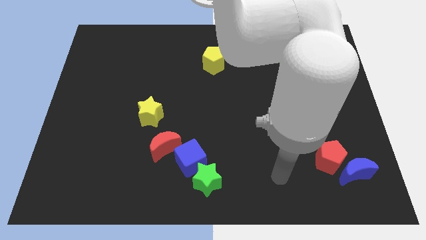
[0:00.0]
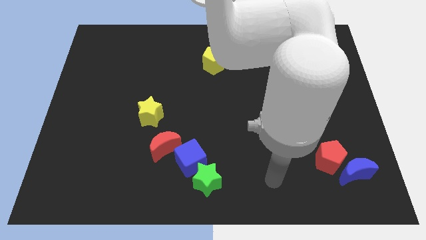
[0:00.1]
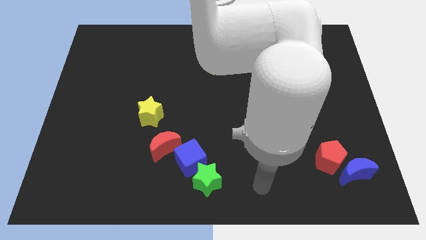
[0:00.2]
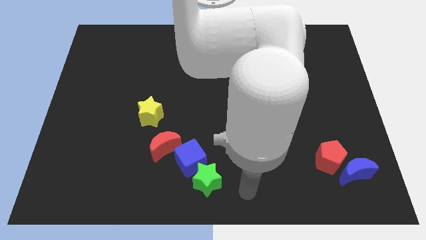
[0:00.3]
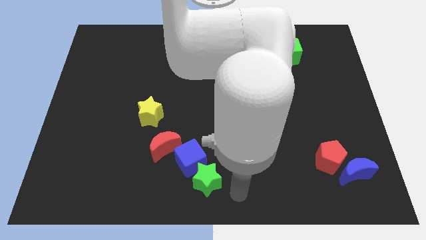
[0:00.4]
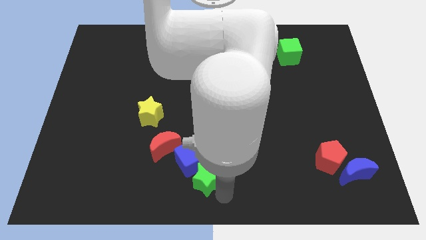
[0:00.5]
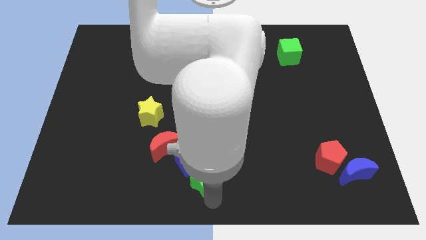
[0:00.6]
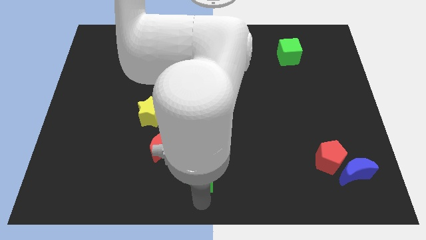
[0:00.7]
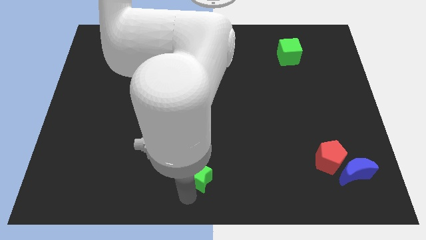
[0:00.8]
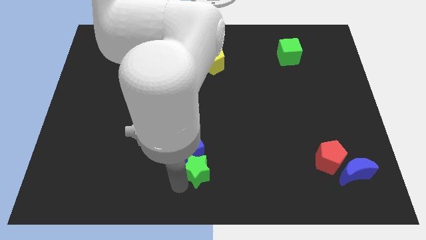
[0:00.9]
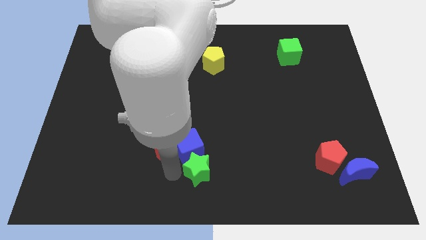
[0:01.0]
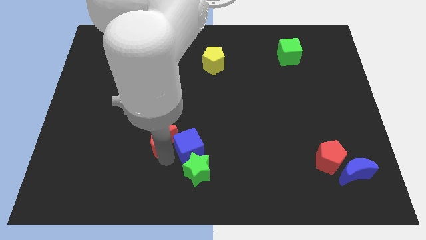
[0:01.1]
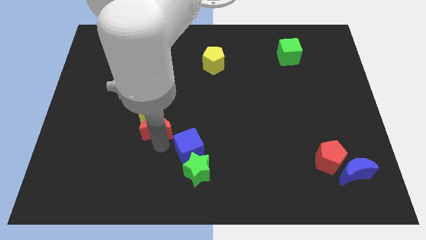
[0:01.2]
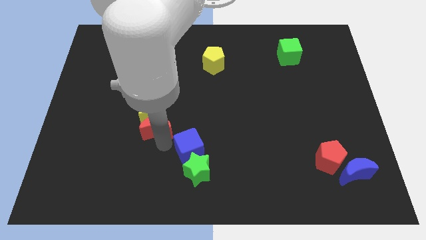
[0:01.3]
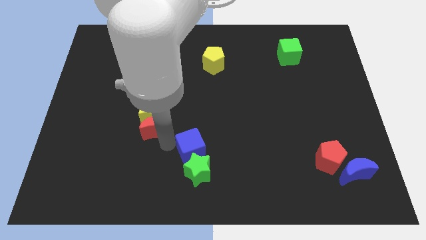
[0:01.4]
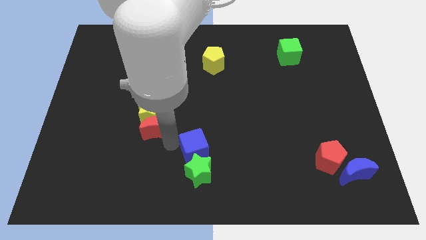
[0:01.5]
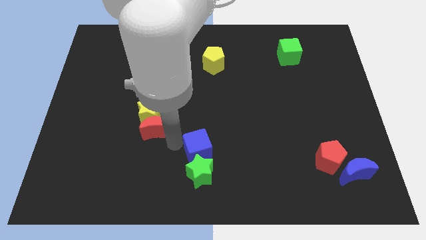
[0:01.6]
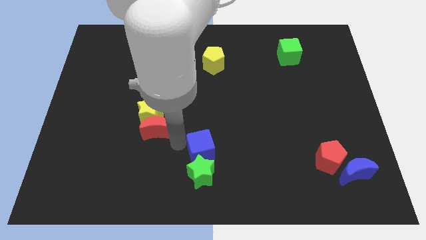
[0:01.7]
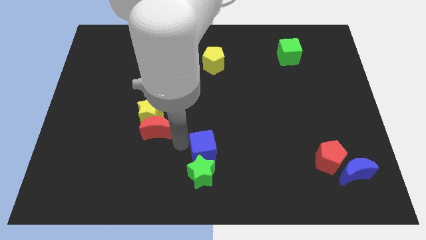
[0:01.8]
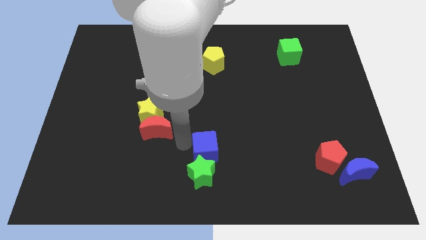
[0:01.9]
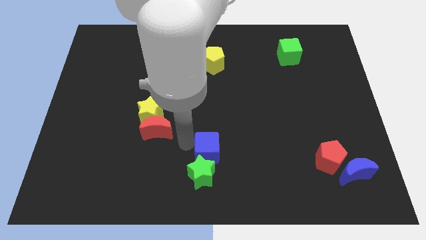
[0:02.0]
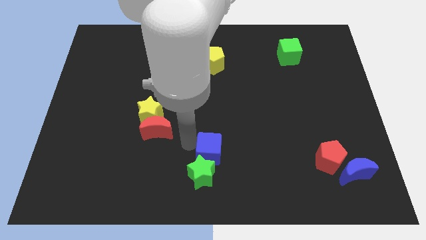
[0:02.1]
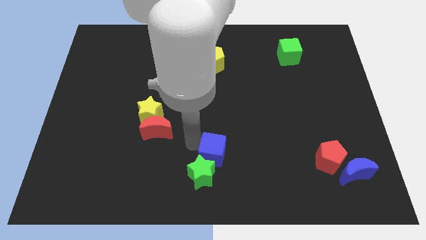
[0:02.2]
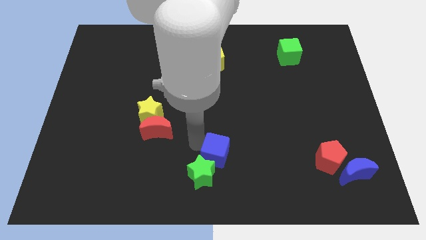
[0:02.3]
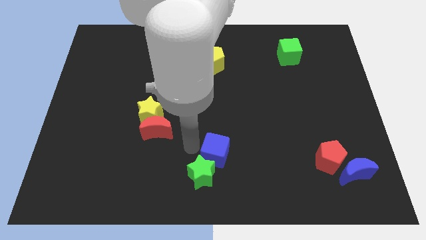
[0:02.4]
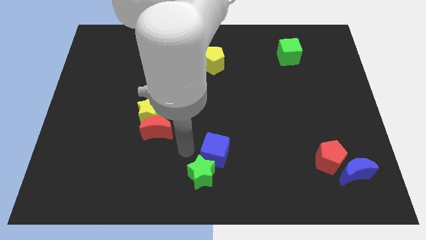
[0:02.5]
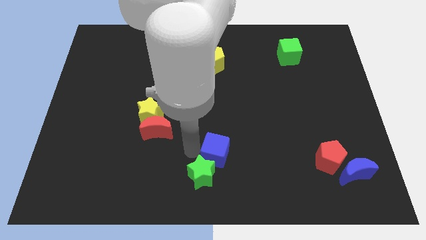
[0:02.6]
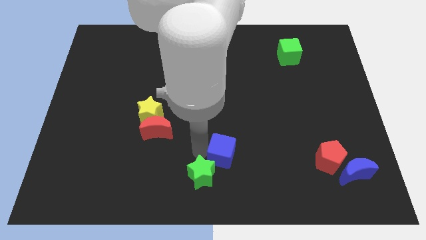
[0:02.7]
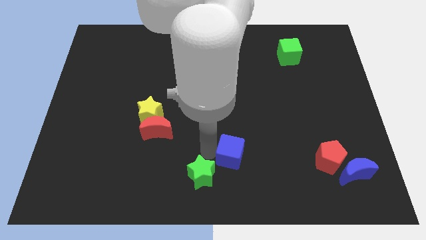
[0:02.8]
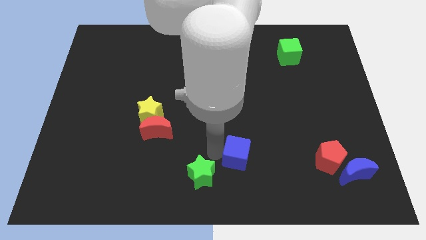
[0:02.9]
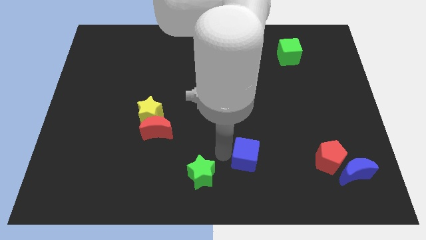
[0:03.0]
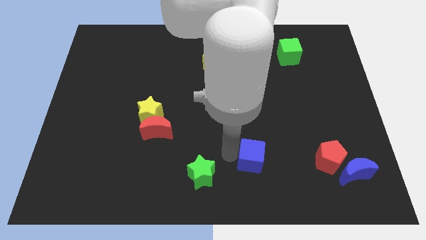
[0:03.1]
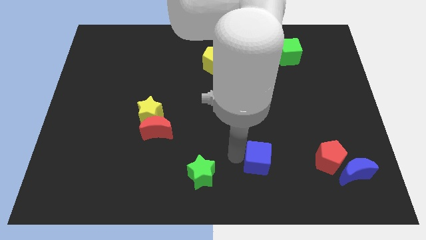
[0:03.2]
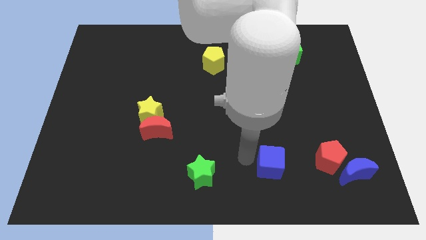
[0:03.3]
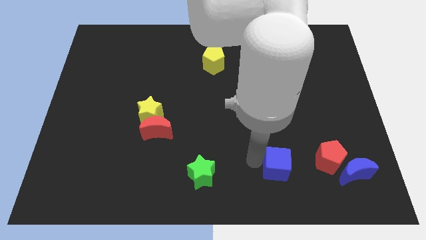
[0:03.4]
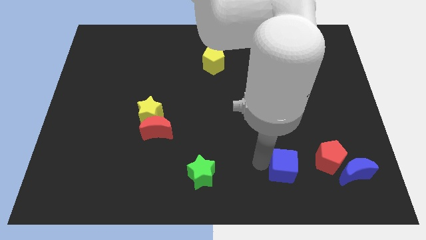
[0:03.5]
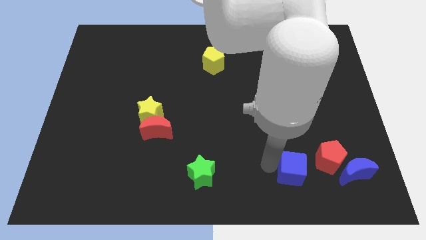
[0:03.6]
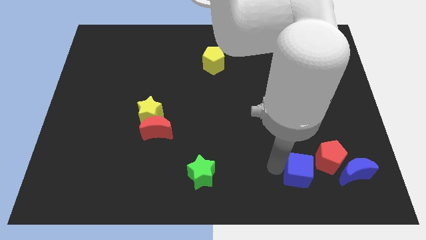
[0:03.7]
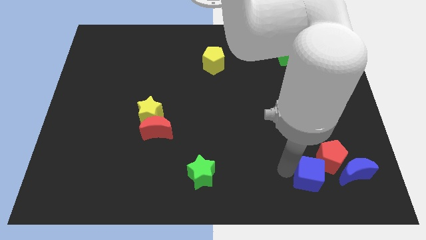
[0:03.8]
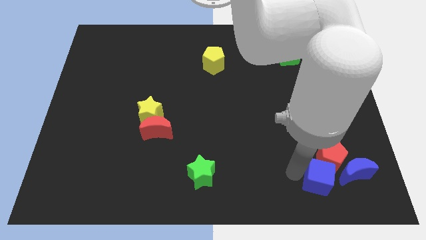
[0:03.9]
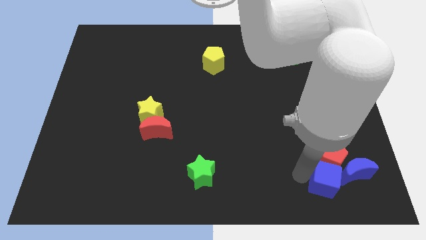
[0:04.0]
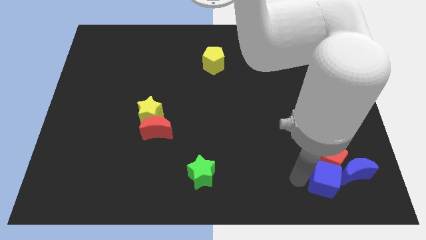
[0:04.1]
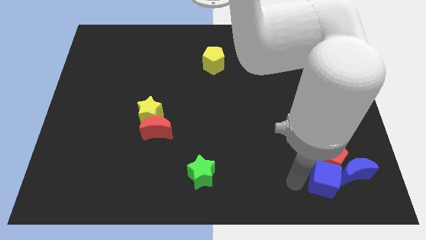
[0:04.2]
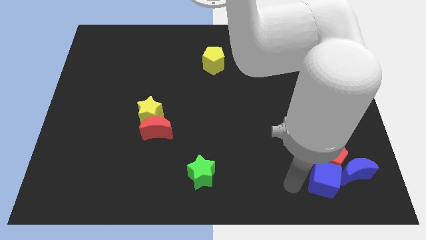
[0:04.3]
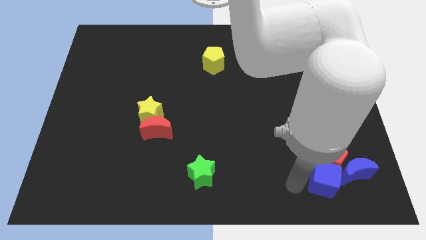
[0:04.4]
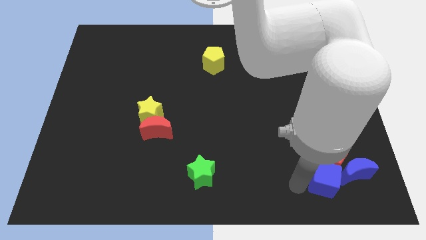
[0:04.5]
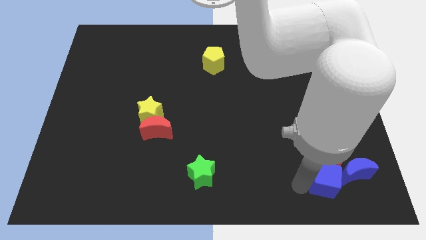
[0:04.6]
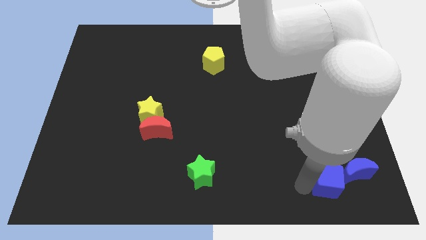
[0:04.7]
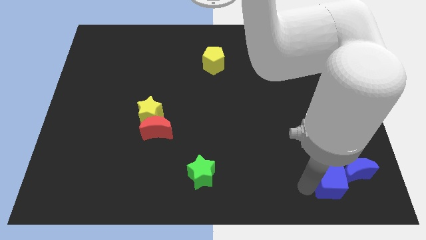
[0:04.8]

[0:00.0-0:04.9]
move the blue cube next to the blue moon

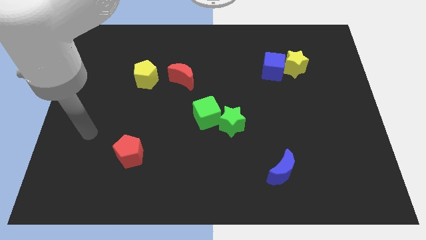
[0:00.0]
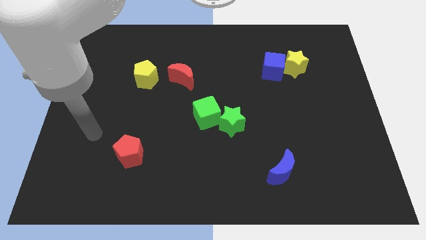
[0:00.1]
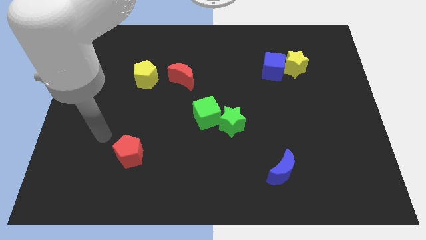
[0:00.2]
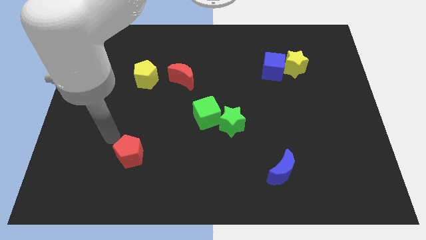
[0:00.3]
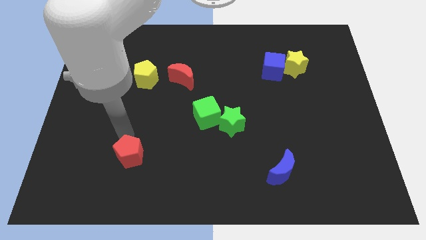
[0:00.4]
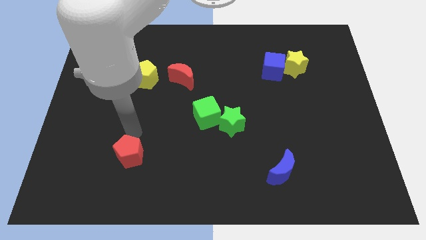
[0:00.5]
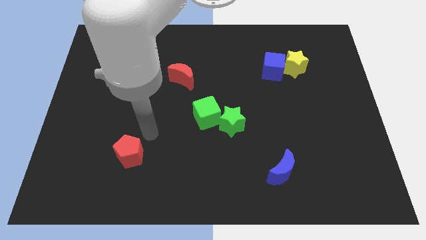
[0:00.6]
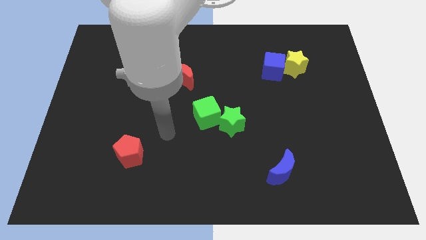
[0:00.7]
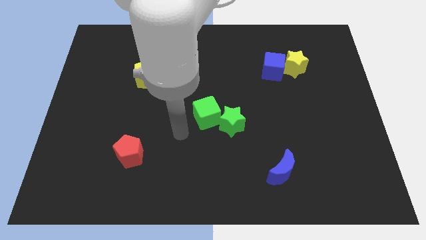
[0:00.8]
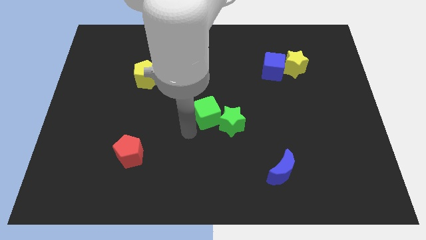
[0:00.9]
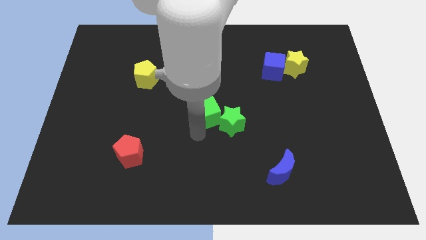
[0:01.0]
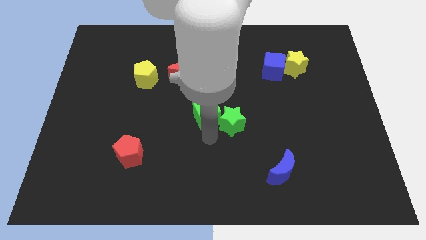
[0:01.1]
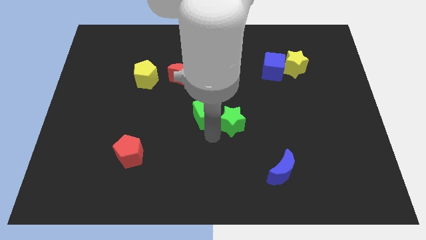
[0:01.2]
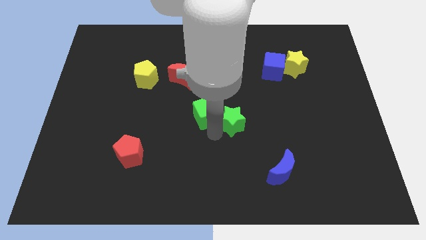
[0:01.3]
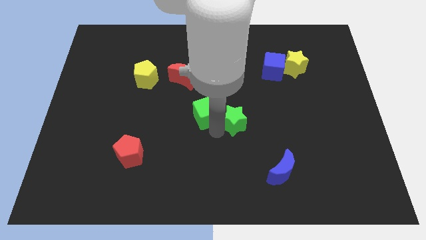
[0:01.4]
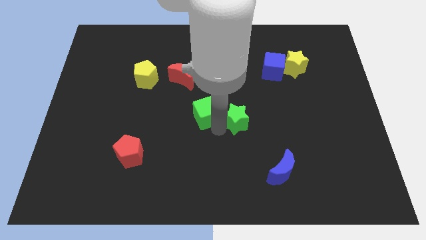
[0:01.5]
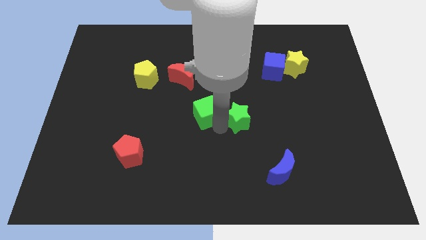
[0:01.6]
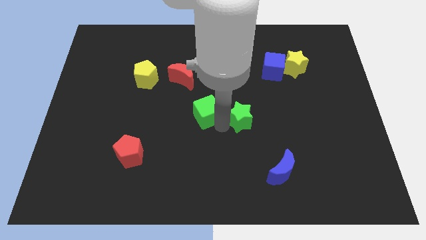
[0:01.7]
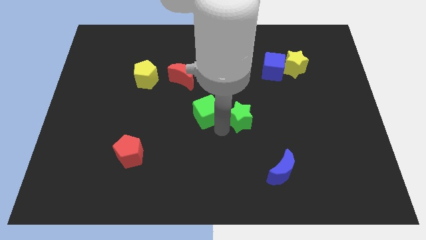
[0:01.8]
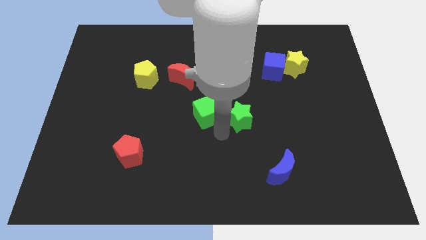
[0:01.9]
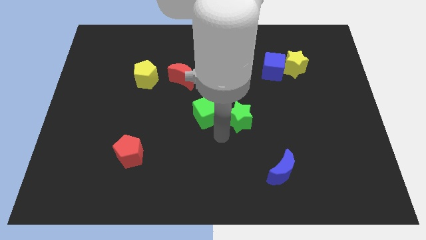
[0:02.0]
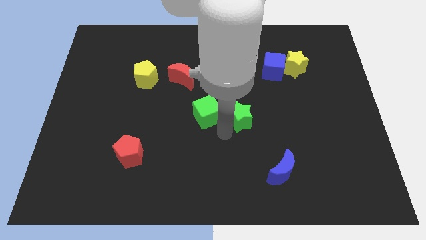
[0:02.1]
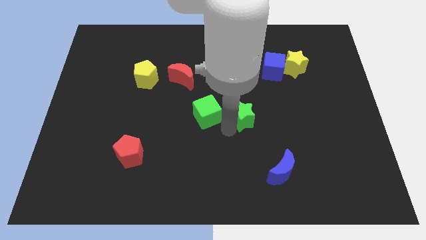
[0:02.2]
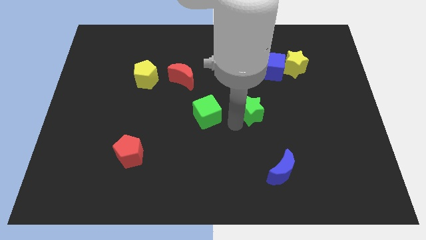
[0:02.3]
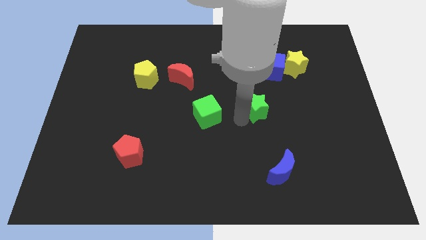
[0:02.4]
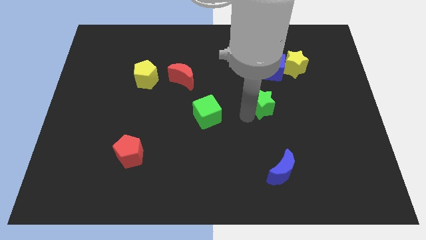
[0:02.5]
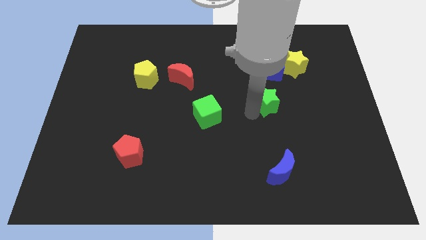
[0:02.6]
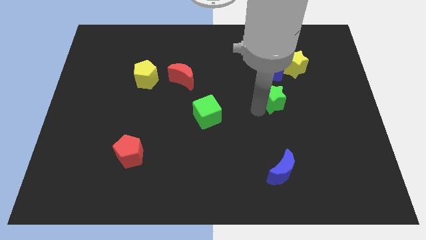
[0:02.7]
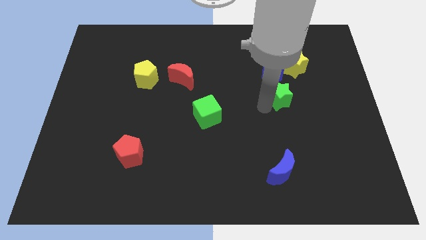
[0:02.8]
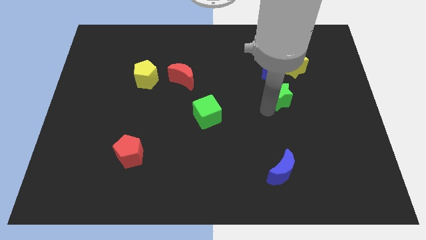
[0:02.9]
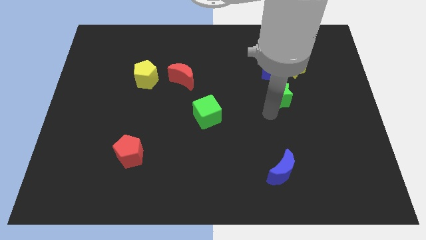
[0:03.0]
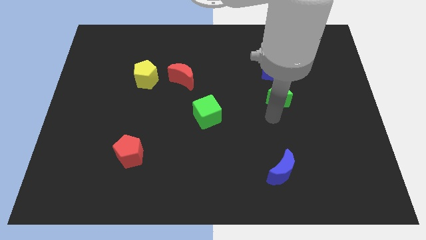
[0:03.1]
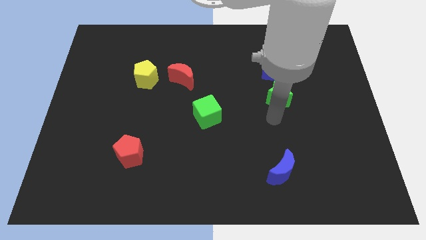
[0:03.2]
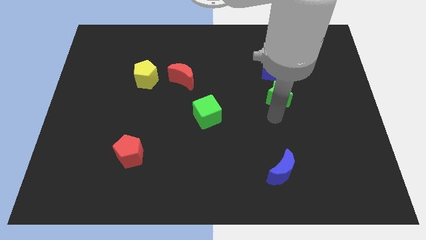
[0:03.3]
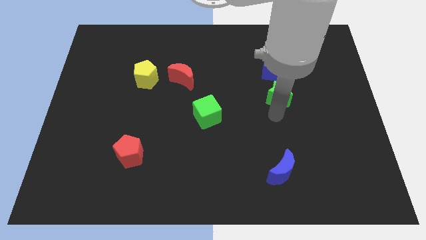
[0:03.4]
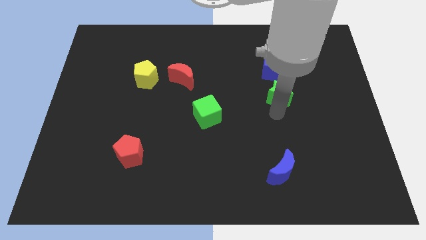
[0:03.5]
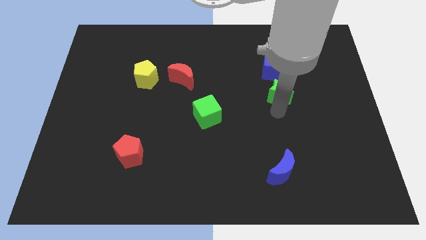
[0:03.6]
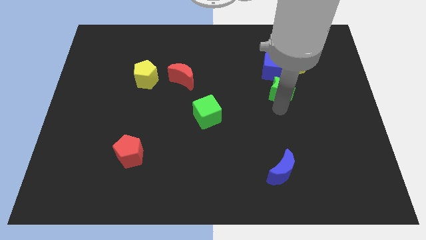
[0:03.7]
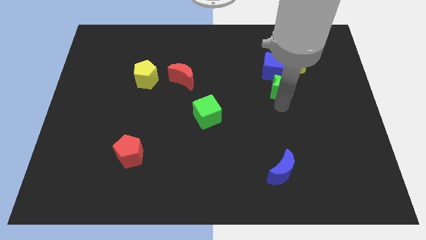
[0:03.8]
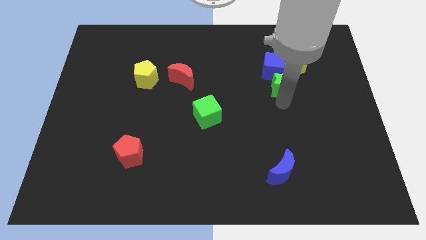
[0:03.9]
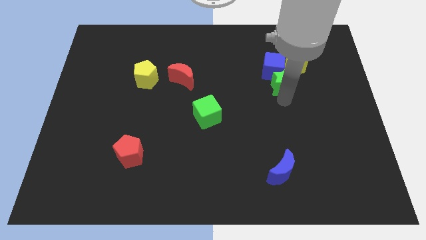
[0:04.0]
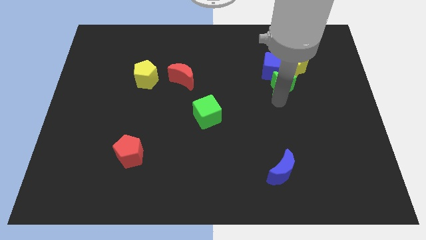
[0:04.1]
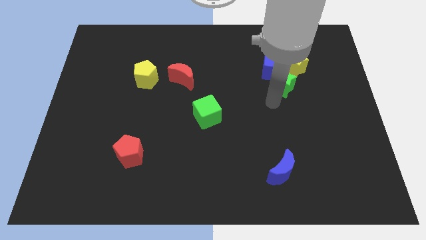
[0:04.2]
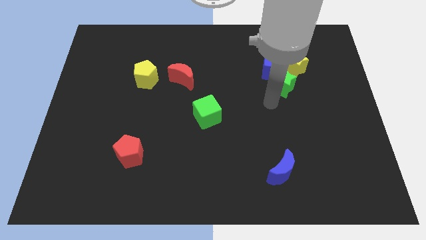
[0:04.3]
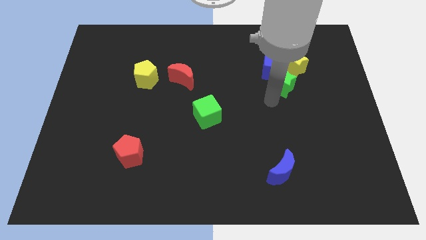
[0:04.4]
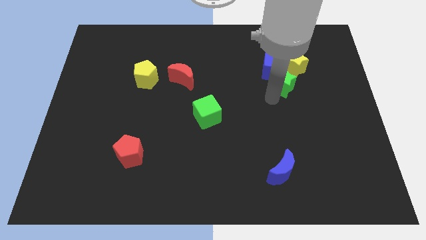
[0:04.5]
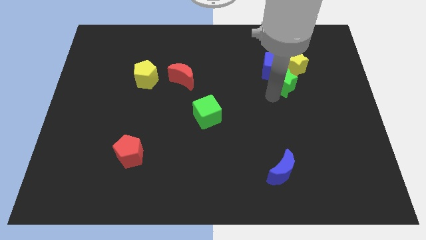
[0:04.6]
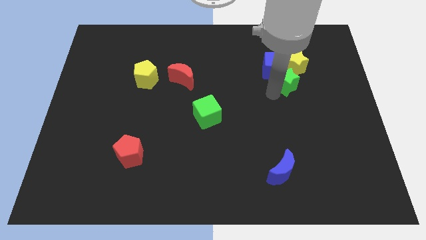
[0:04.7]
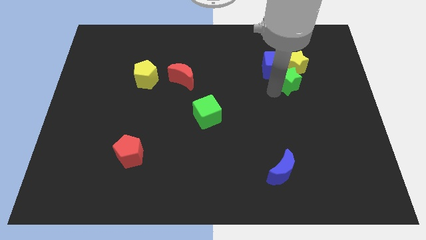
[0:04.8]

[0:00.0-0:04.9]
move the green star towards the yellow star
